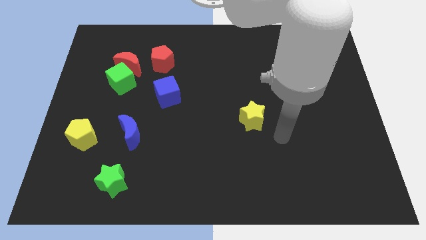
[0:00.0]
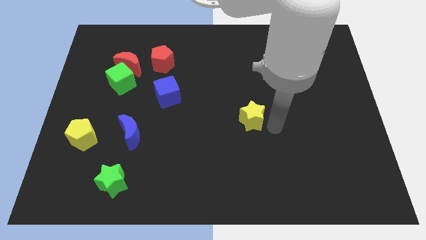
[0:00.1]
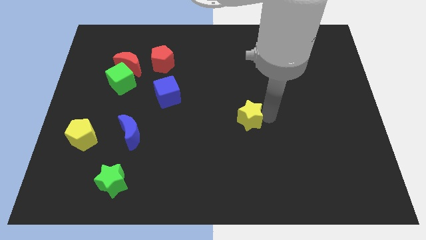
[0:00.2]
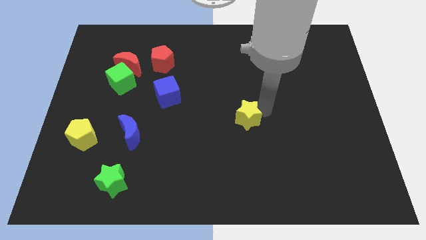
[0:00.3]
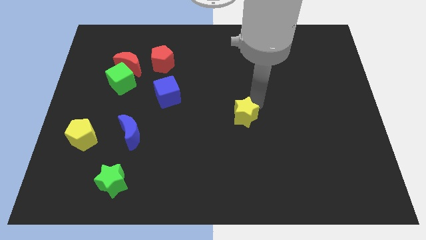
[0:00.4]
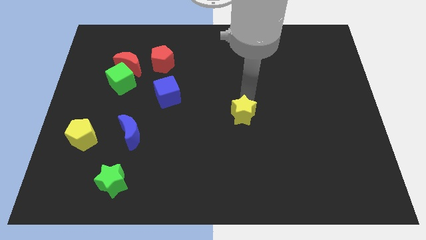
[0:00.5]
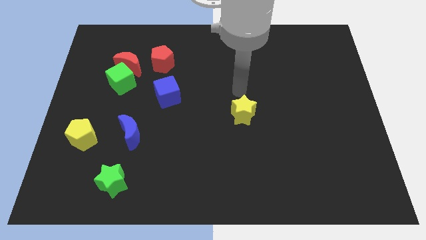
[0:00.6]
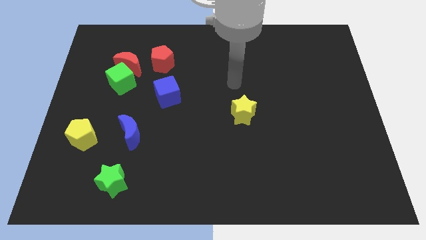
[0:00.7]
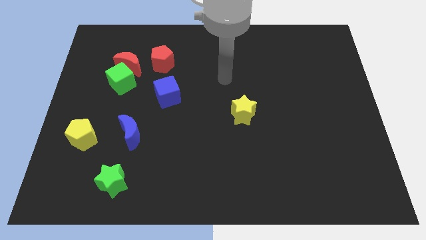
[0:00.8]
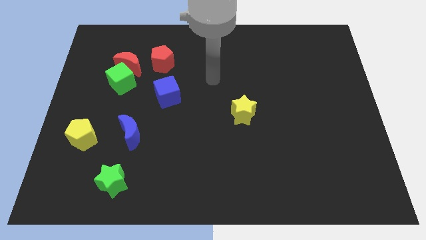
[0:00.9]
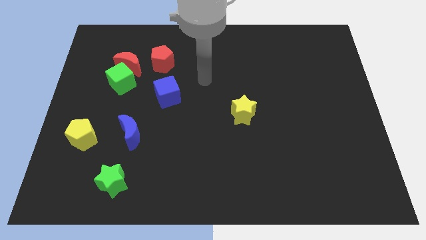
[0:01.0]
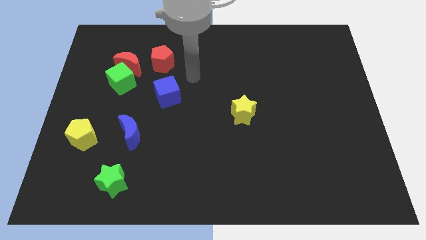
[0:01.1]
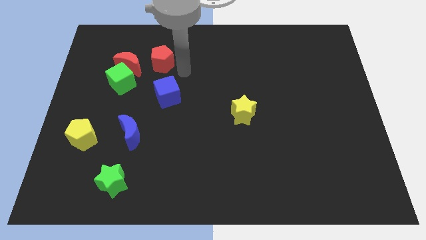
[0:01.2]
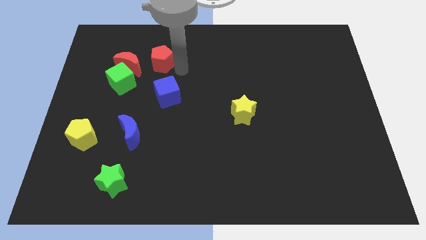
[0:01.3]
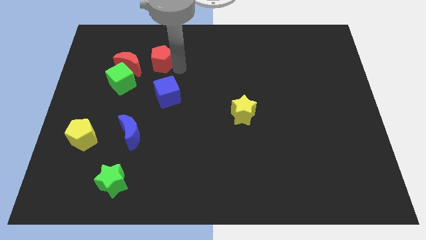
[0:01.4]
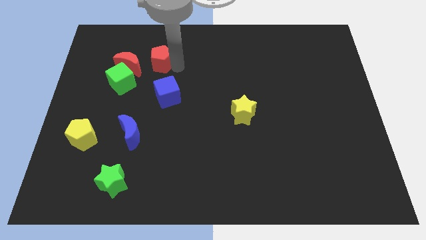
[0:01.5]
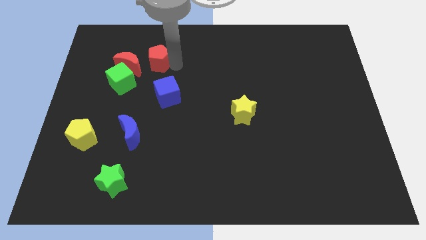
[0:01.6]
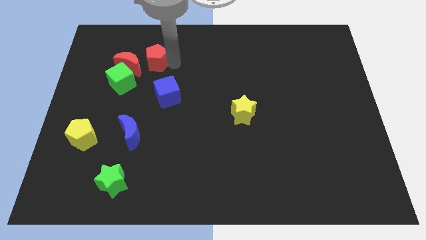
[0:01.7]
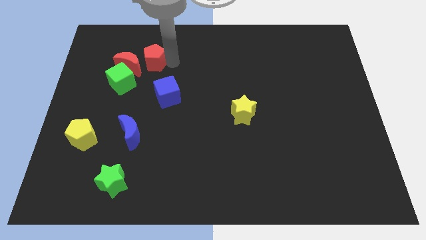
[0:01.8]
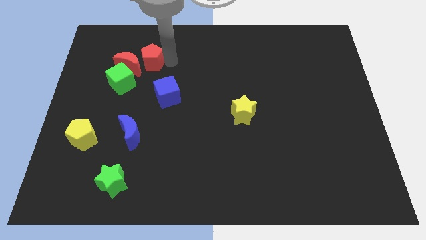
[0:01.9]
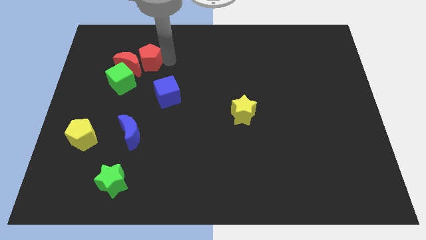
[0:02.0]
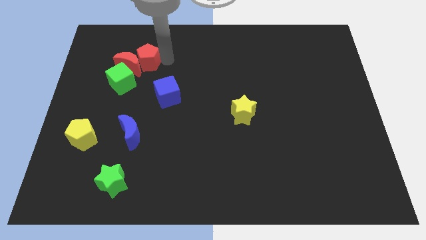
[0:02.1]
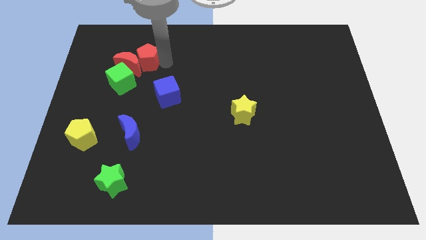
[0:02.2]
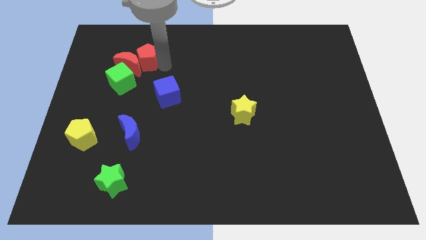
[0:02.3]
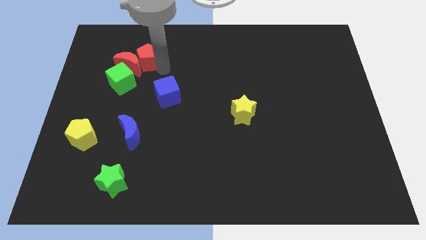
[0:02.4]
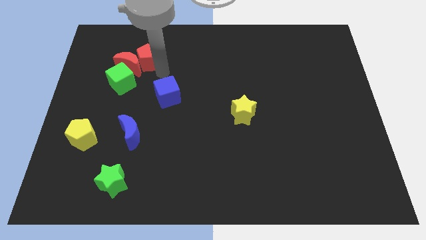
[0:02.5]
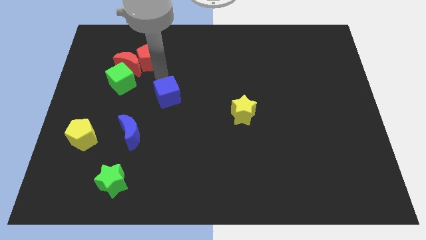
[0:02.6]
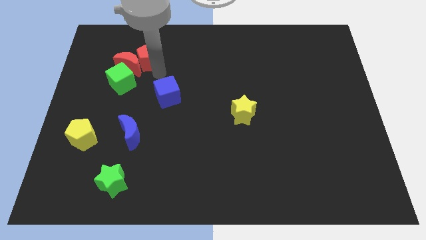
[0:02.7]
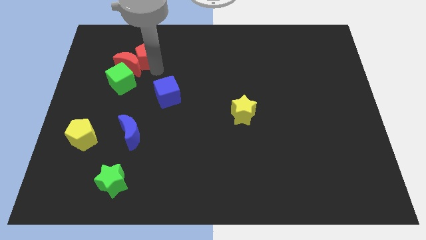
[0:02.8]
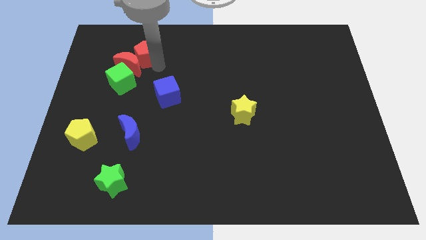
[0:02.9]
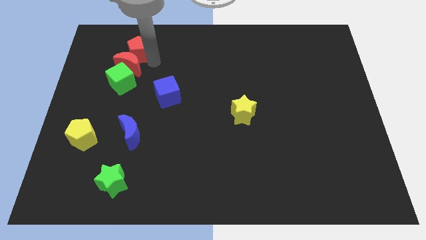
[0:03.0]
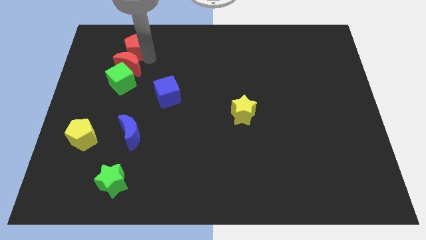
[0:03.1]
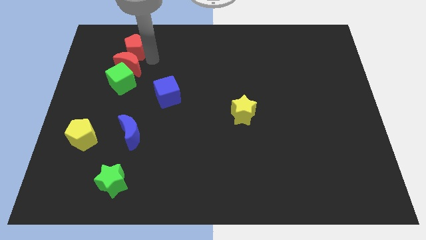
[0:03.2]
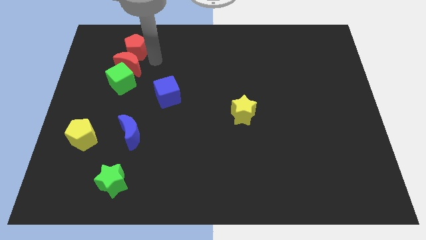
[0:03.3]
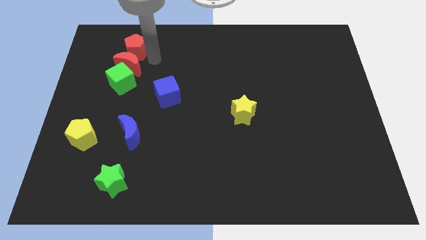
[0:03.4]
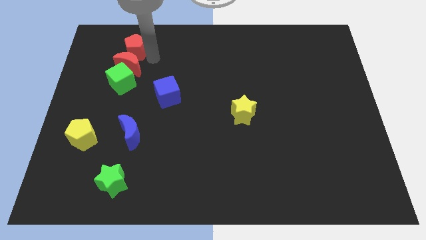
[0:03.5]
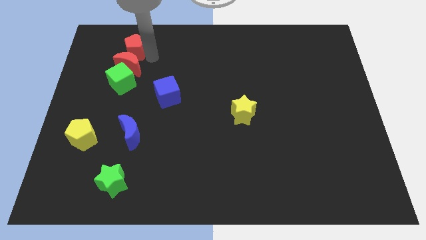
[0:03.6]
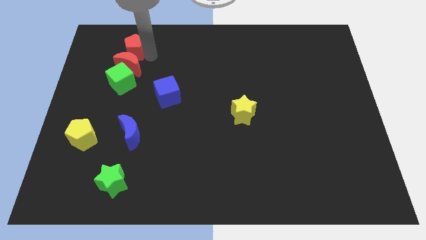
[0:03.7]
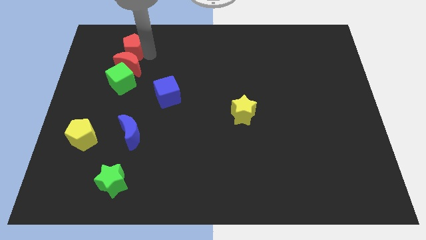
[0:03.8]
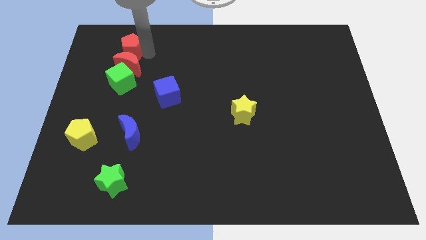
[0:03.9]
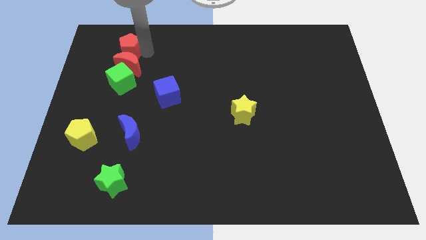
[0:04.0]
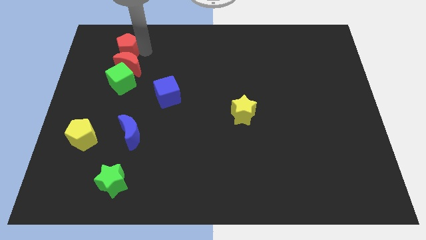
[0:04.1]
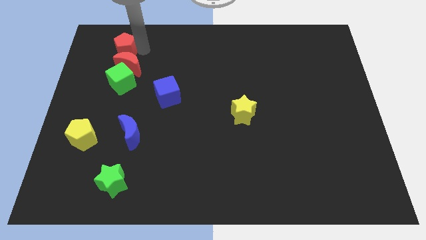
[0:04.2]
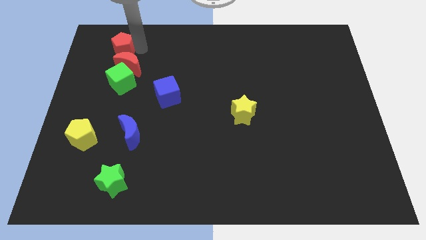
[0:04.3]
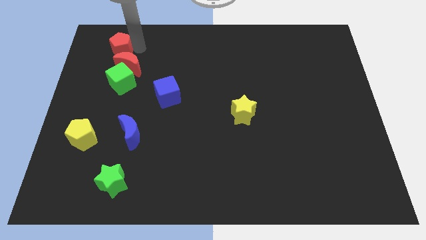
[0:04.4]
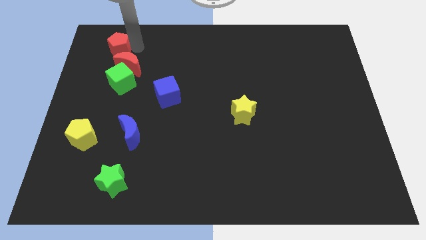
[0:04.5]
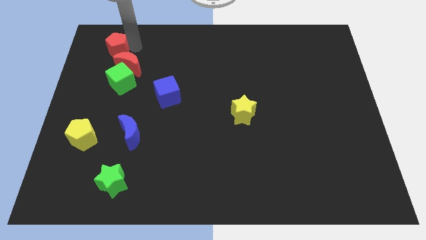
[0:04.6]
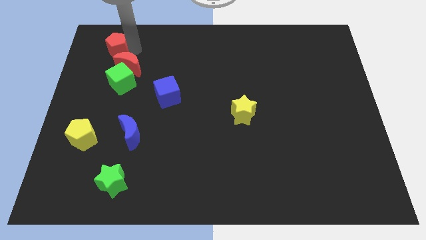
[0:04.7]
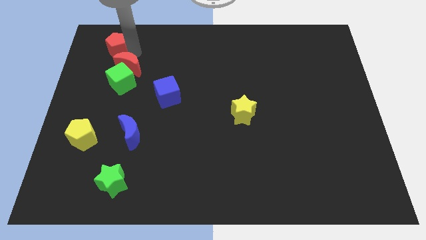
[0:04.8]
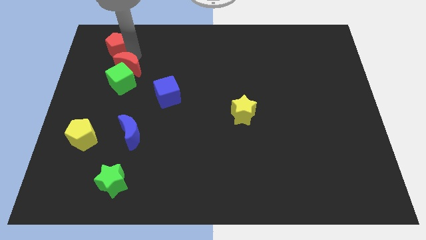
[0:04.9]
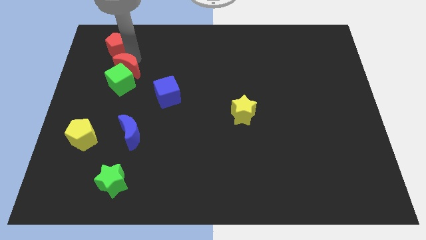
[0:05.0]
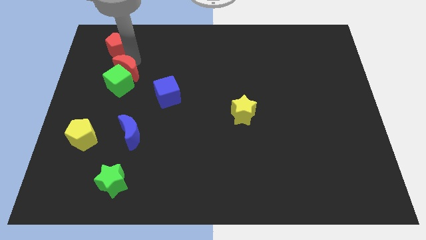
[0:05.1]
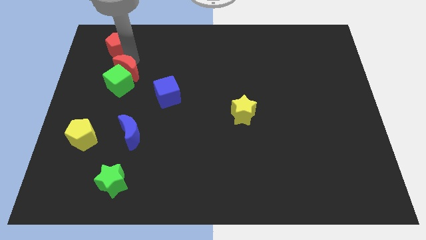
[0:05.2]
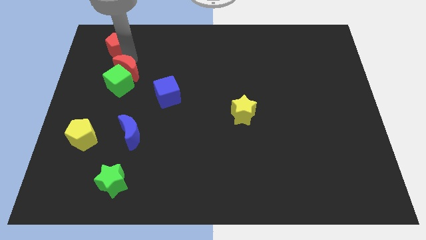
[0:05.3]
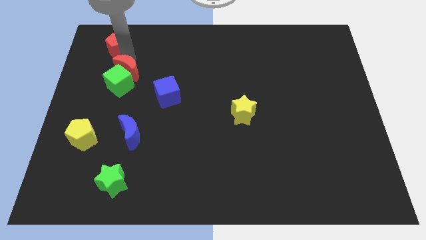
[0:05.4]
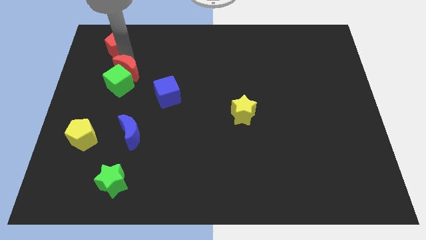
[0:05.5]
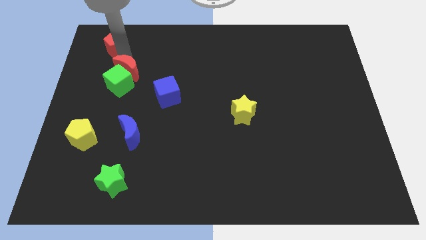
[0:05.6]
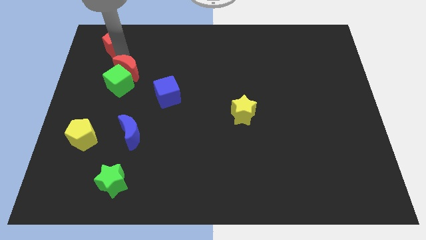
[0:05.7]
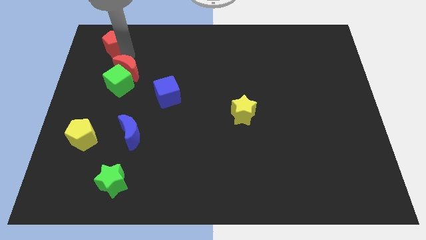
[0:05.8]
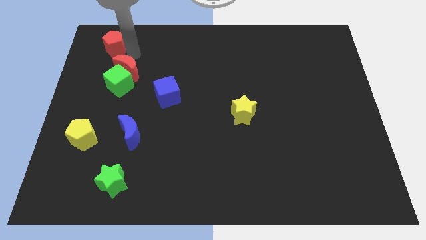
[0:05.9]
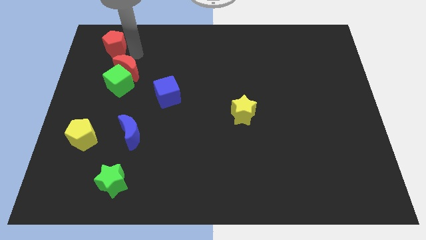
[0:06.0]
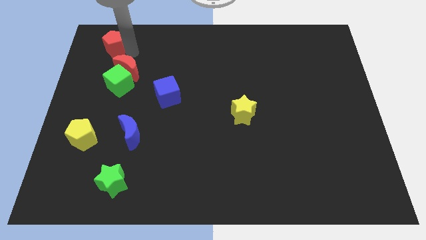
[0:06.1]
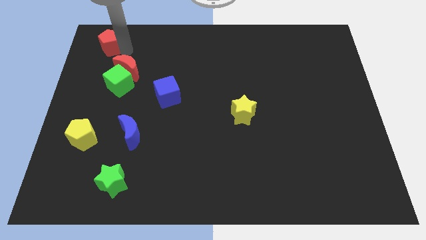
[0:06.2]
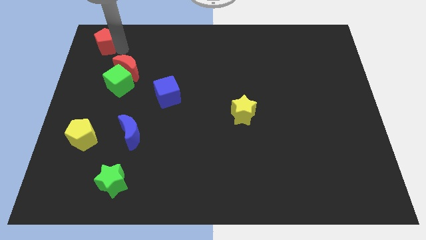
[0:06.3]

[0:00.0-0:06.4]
put the red pentagon to the top left of the board
